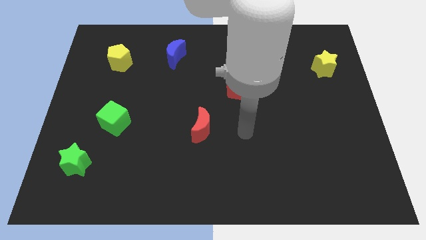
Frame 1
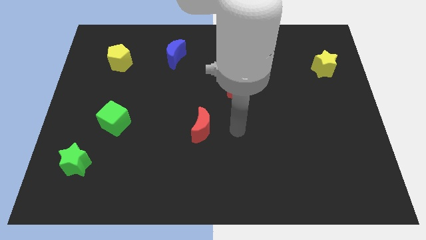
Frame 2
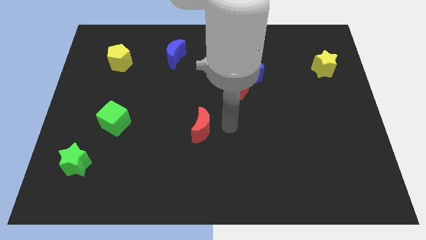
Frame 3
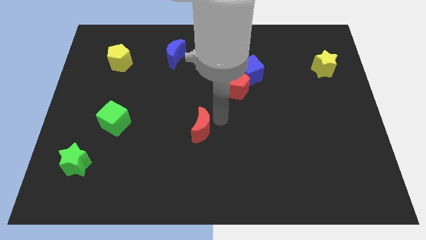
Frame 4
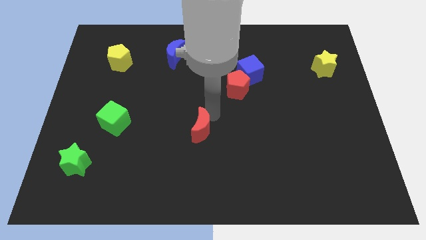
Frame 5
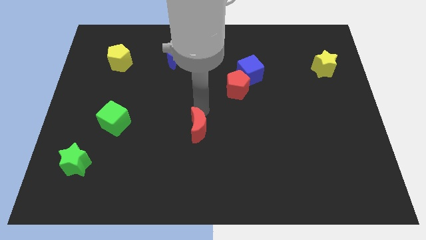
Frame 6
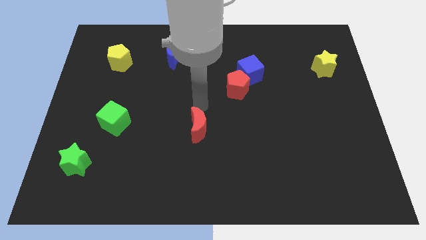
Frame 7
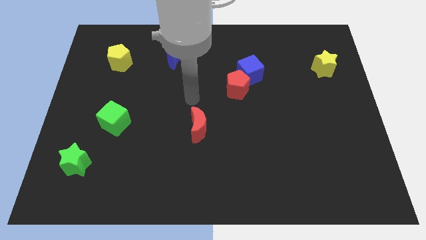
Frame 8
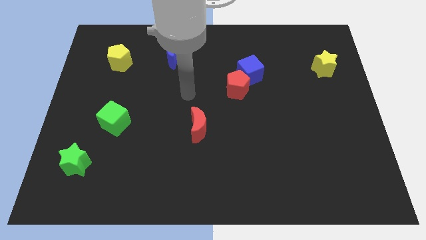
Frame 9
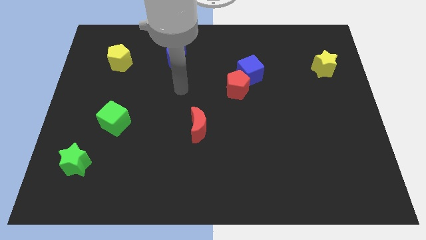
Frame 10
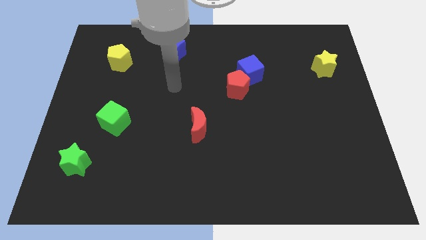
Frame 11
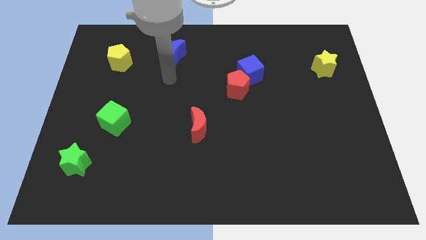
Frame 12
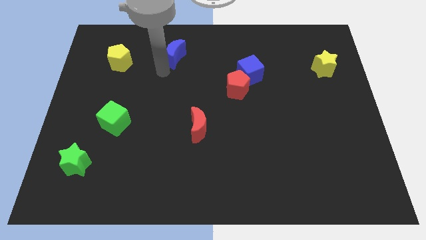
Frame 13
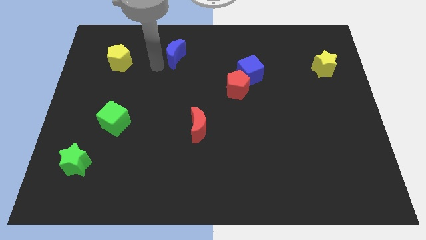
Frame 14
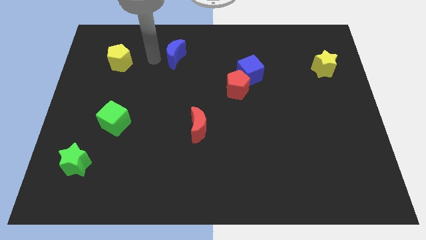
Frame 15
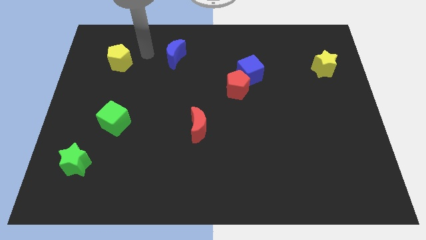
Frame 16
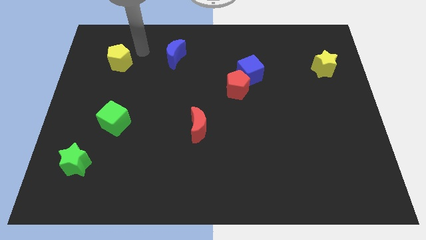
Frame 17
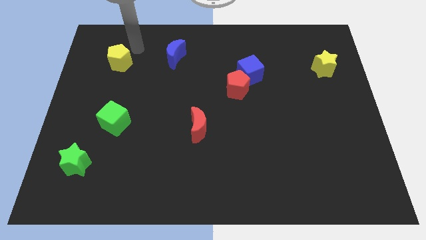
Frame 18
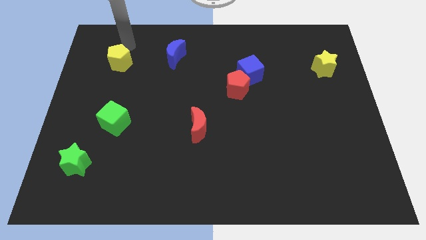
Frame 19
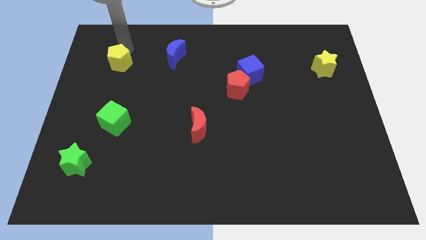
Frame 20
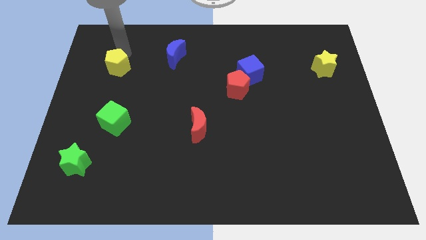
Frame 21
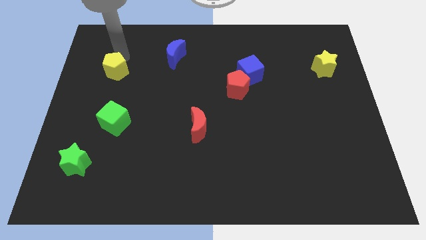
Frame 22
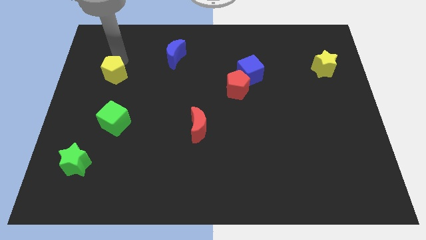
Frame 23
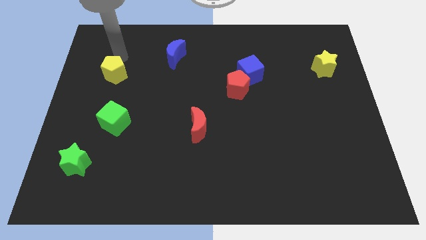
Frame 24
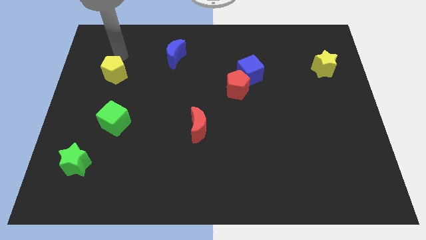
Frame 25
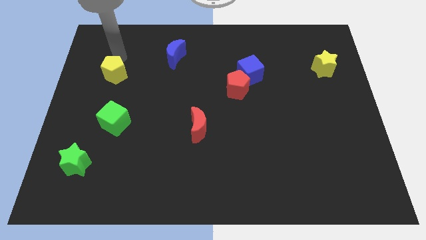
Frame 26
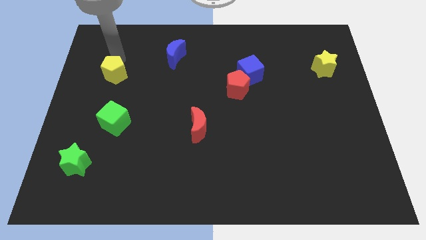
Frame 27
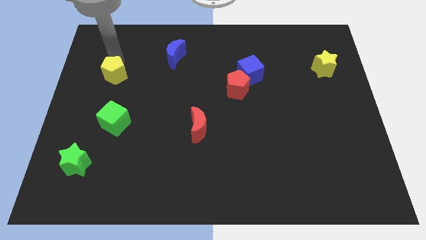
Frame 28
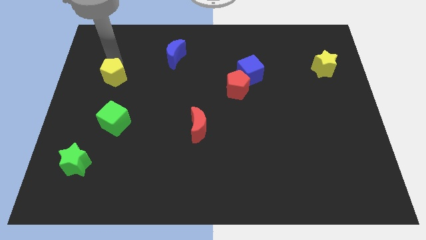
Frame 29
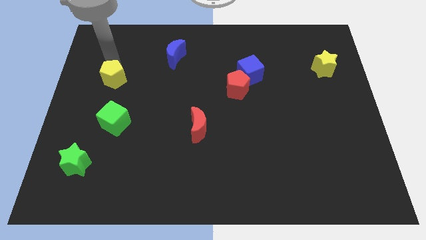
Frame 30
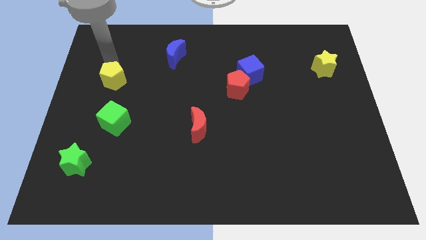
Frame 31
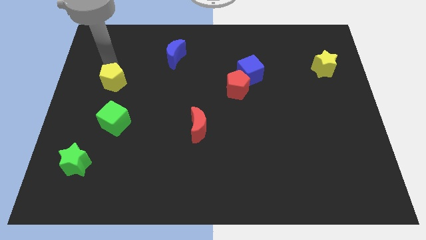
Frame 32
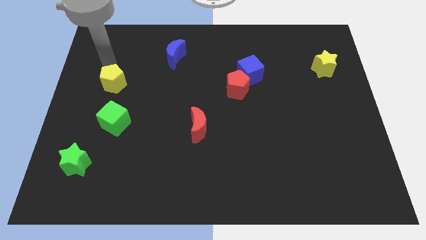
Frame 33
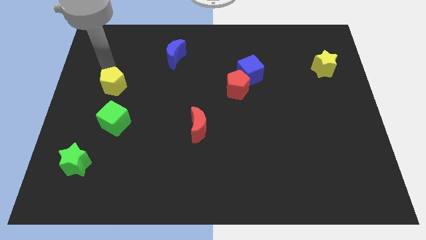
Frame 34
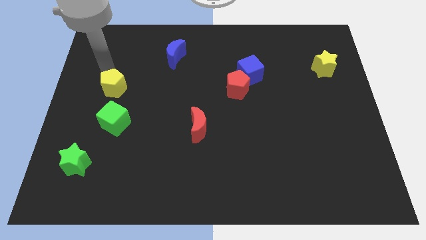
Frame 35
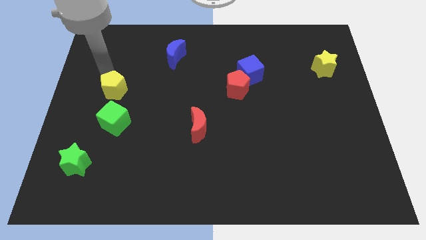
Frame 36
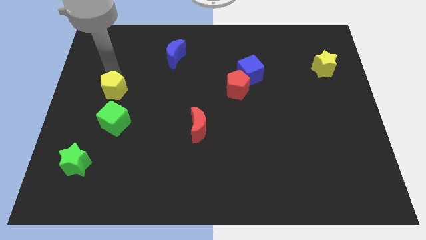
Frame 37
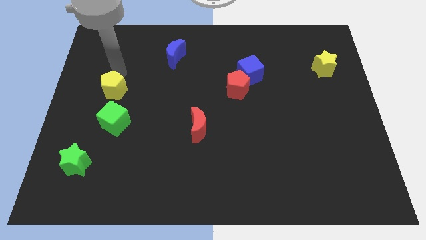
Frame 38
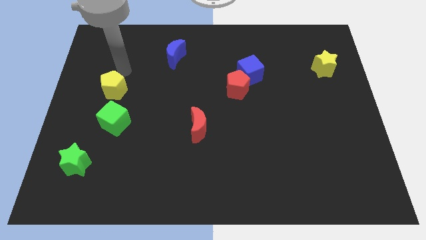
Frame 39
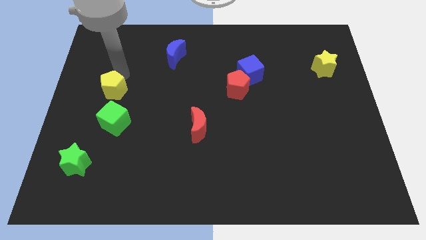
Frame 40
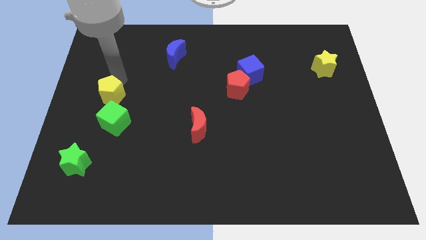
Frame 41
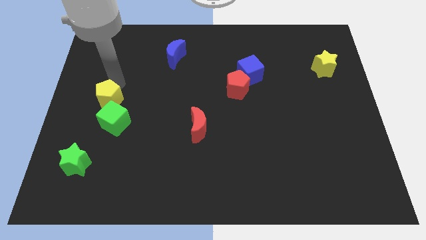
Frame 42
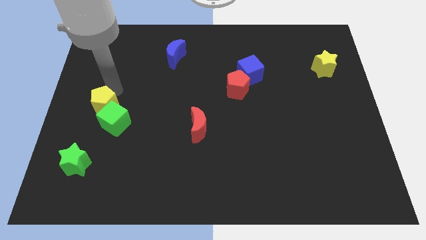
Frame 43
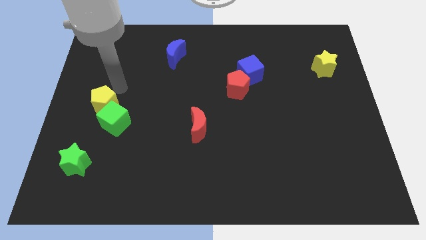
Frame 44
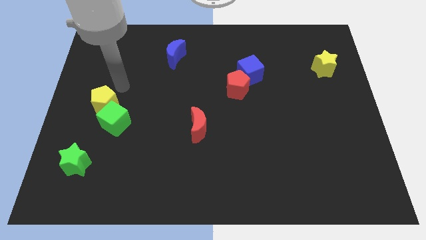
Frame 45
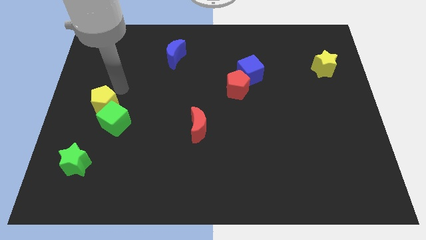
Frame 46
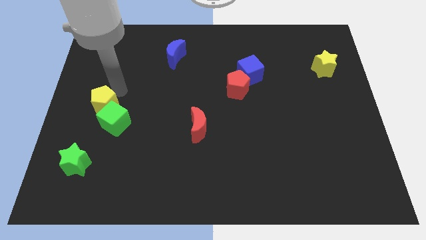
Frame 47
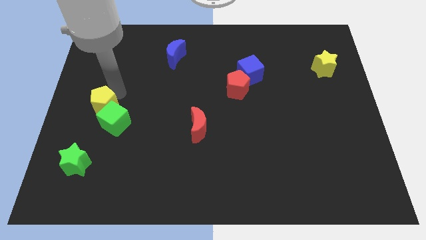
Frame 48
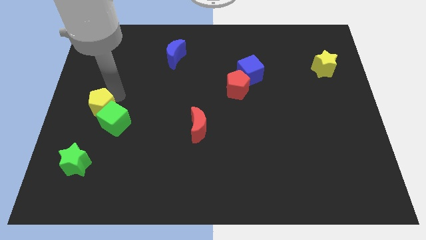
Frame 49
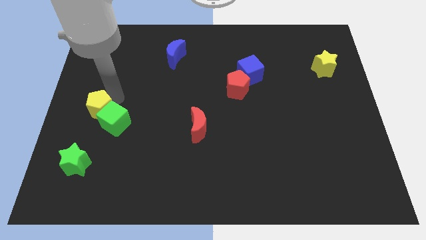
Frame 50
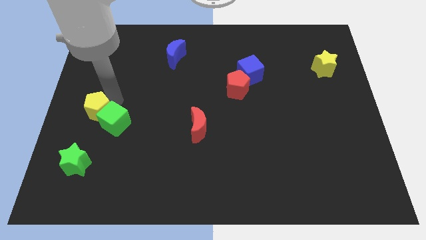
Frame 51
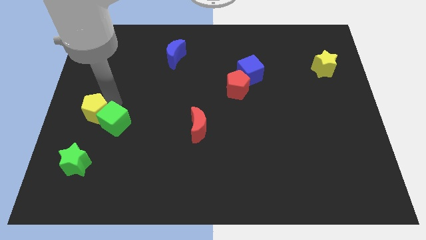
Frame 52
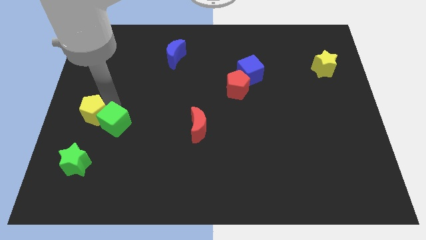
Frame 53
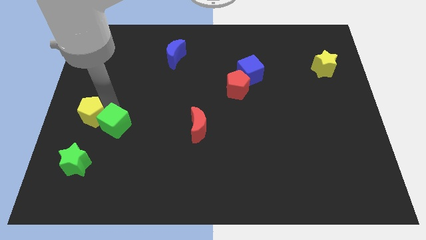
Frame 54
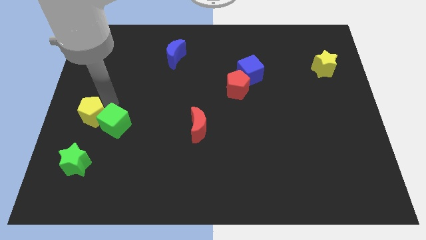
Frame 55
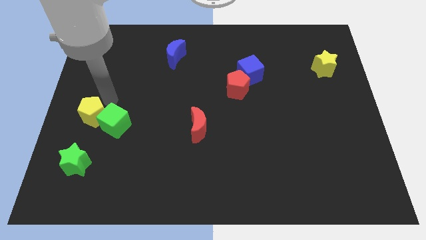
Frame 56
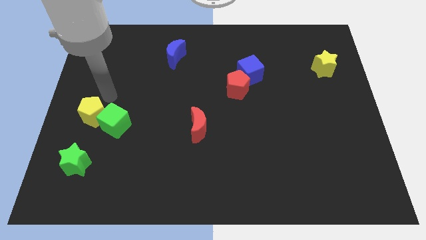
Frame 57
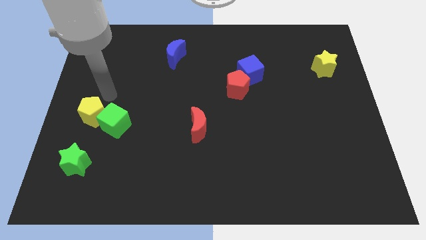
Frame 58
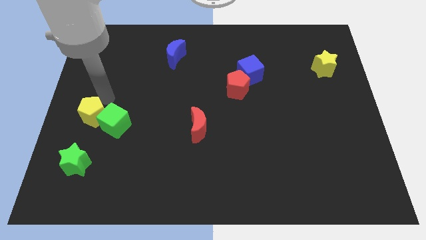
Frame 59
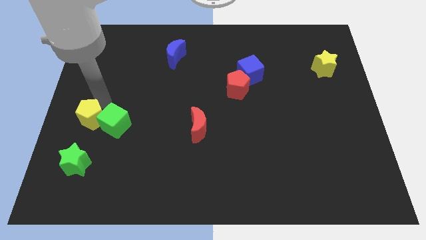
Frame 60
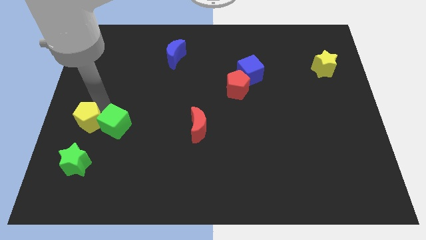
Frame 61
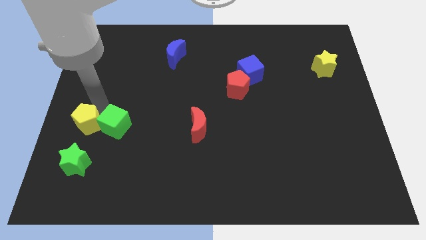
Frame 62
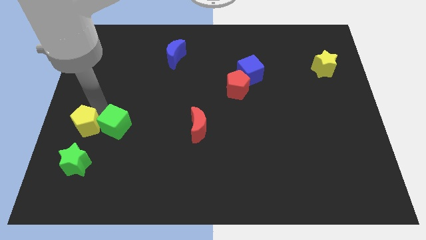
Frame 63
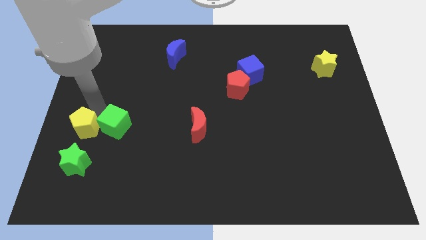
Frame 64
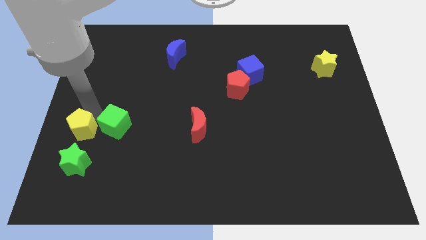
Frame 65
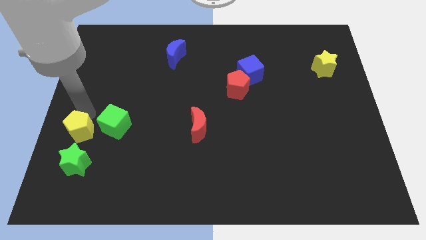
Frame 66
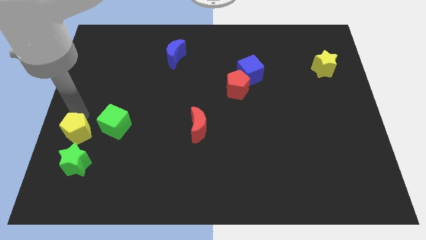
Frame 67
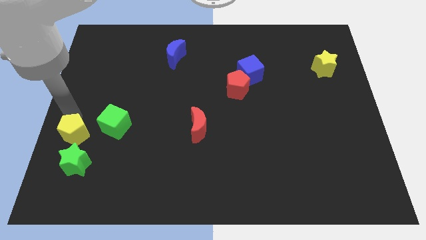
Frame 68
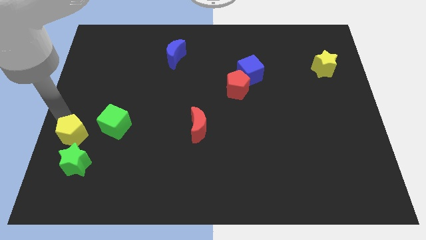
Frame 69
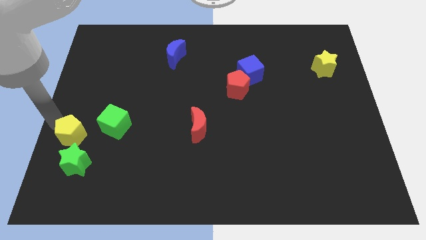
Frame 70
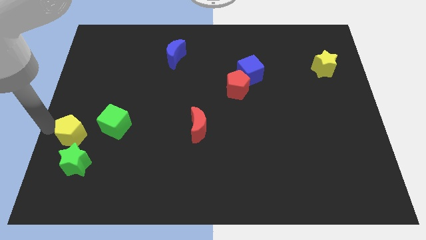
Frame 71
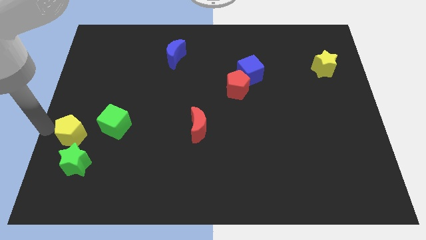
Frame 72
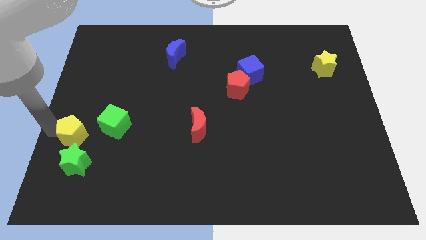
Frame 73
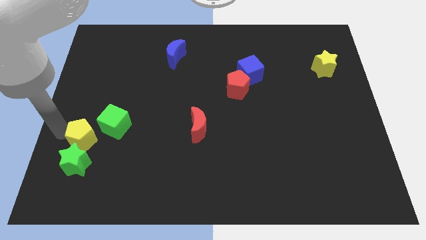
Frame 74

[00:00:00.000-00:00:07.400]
move the yellow pentagon to the top right side of the green star
